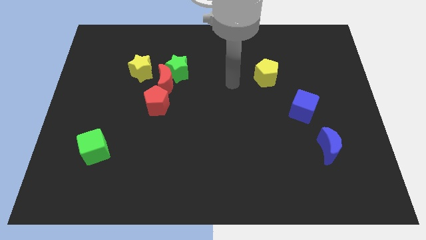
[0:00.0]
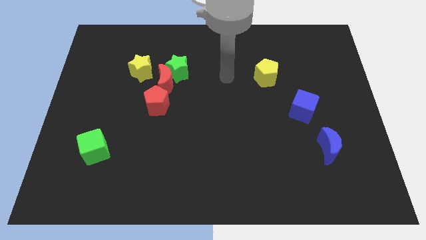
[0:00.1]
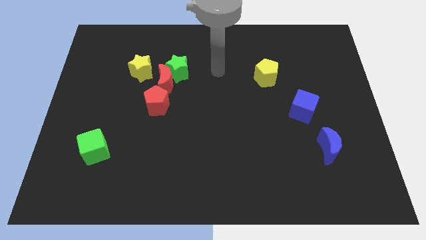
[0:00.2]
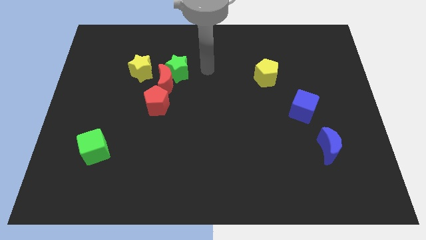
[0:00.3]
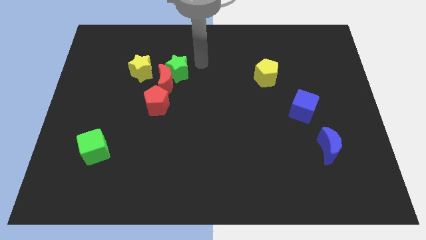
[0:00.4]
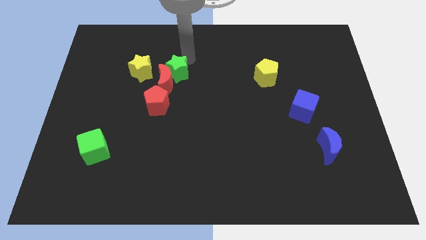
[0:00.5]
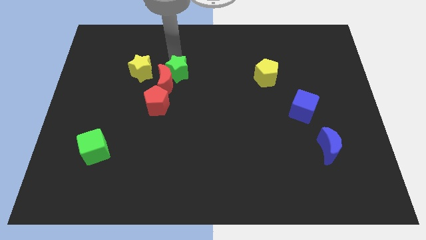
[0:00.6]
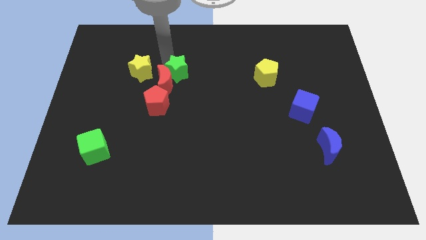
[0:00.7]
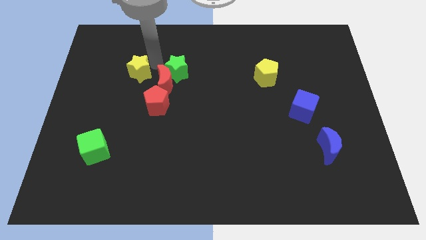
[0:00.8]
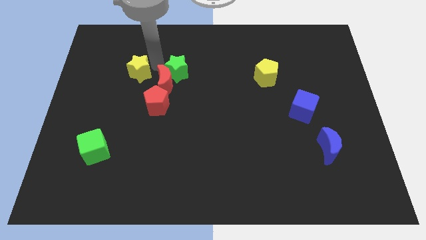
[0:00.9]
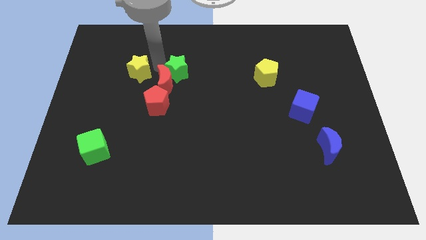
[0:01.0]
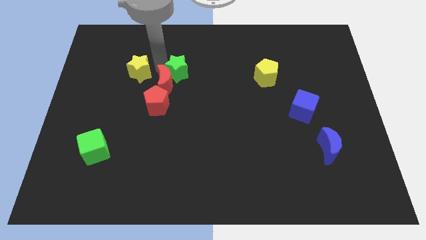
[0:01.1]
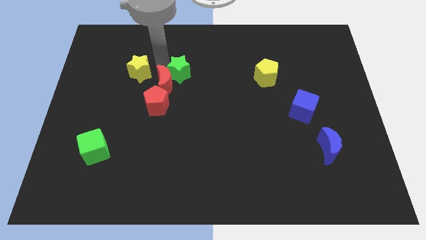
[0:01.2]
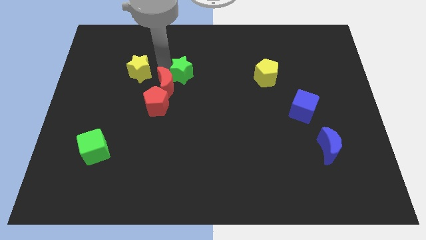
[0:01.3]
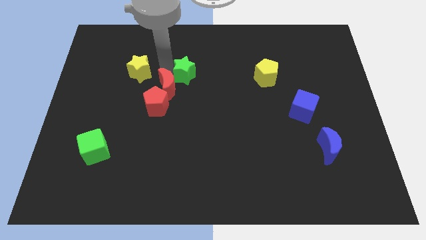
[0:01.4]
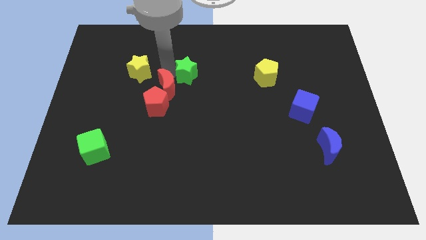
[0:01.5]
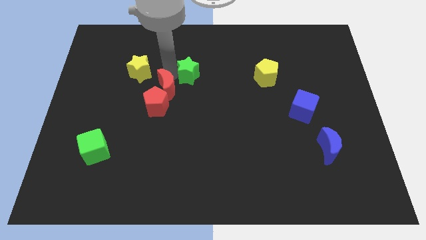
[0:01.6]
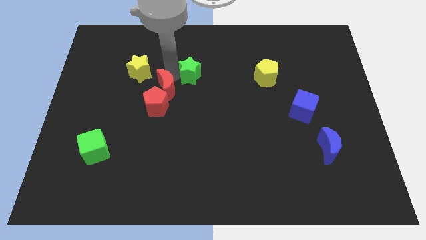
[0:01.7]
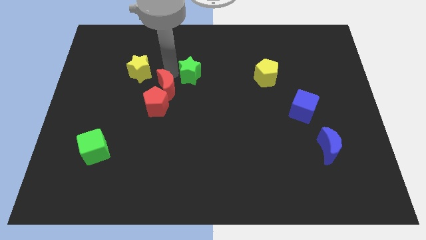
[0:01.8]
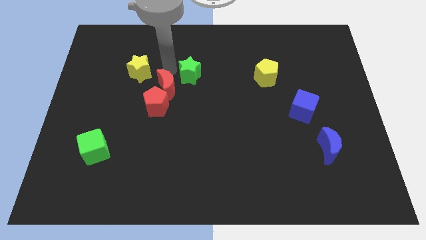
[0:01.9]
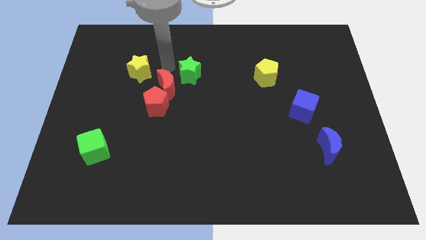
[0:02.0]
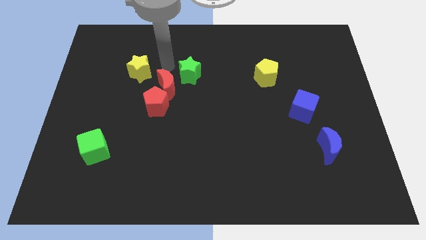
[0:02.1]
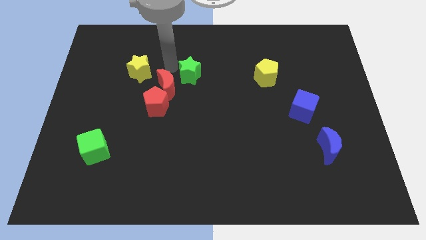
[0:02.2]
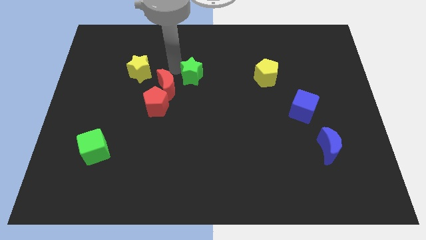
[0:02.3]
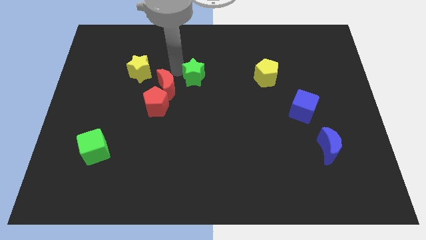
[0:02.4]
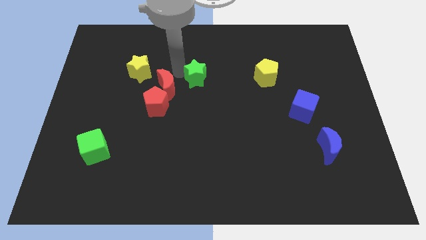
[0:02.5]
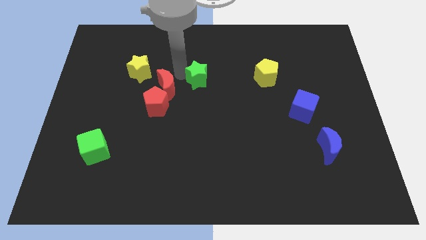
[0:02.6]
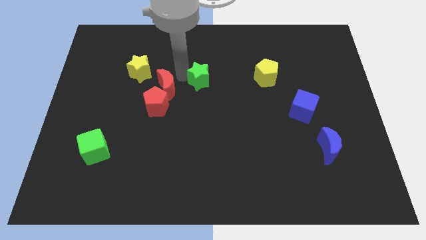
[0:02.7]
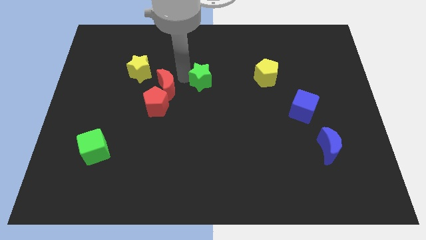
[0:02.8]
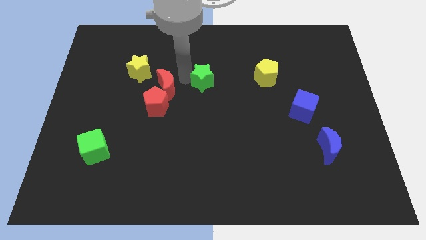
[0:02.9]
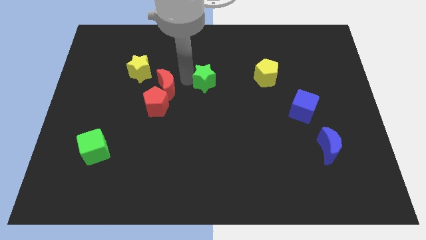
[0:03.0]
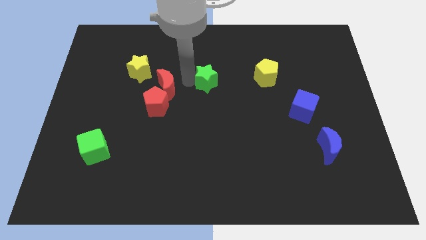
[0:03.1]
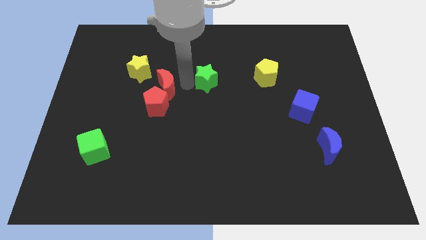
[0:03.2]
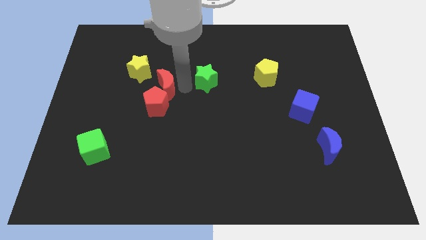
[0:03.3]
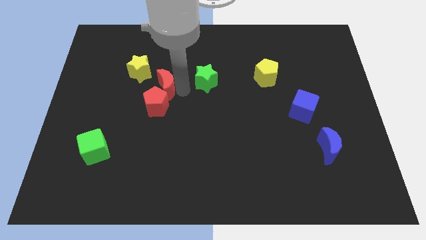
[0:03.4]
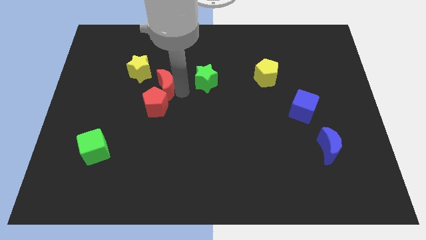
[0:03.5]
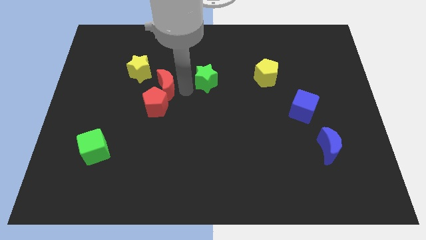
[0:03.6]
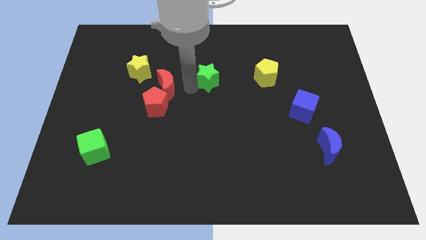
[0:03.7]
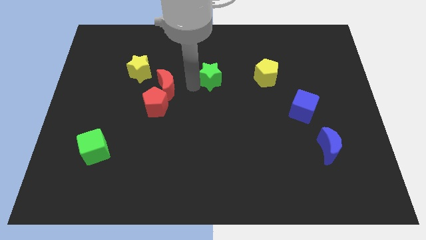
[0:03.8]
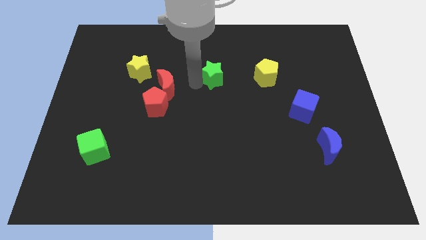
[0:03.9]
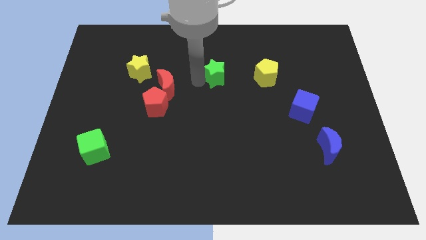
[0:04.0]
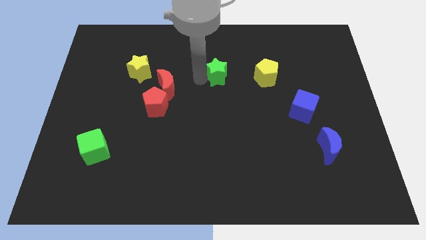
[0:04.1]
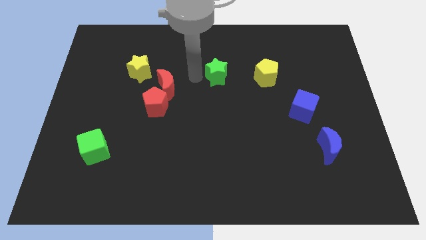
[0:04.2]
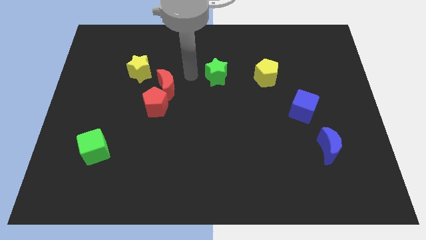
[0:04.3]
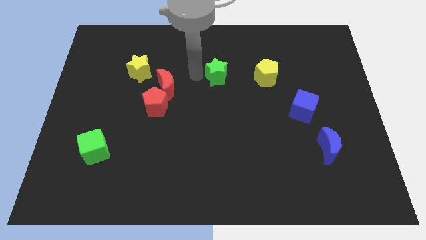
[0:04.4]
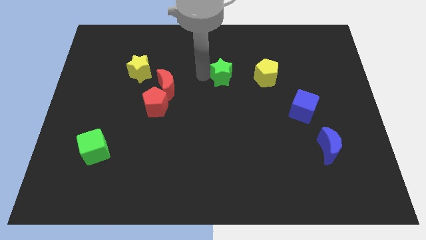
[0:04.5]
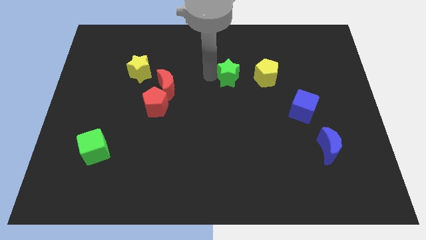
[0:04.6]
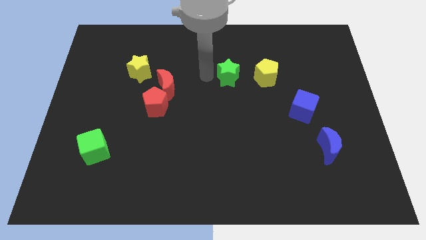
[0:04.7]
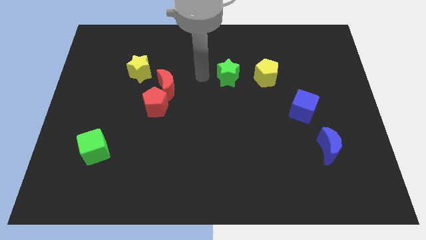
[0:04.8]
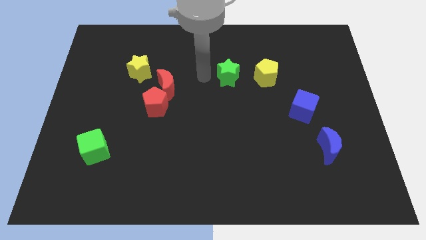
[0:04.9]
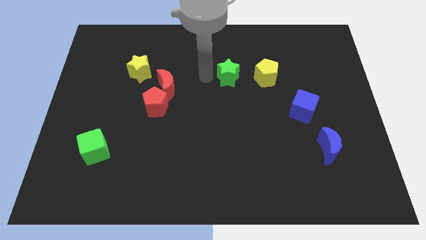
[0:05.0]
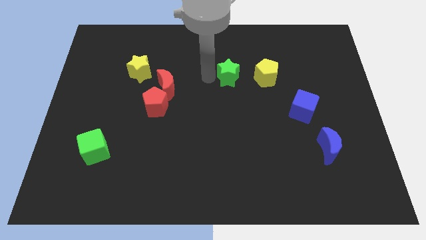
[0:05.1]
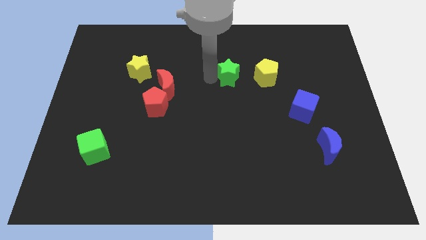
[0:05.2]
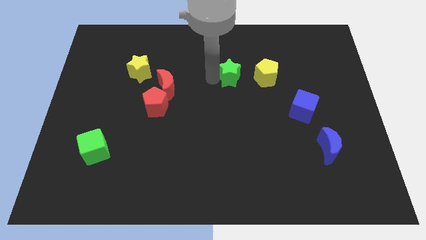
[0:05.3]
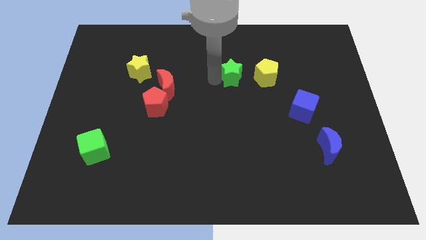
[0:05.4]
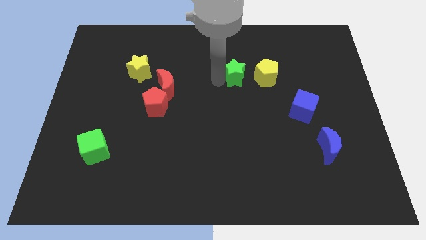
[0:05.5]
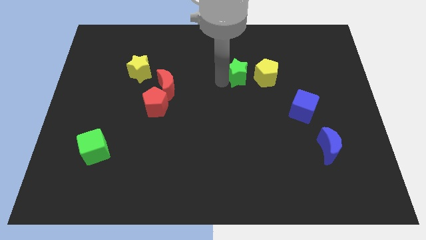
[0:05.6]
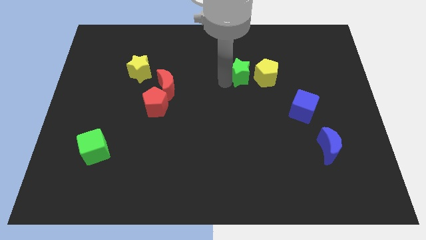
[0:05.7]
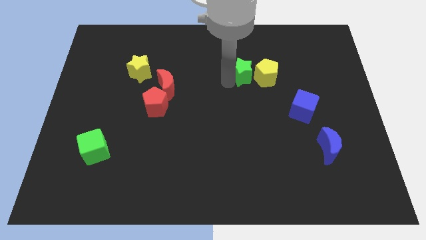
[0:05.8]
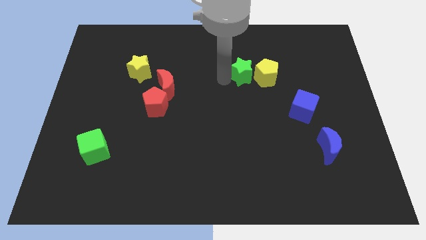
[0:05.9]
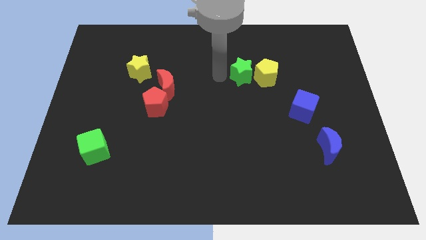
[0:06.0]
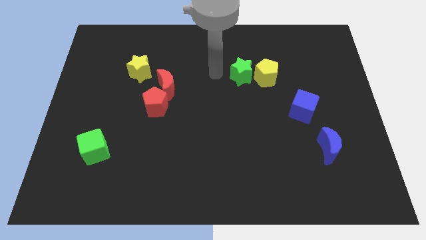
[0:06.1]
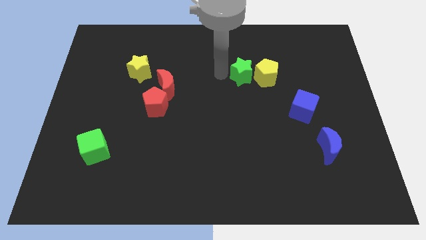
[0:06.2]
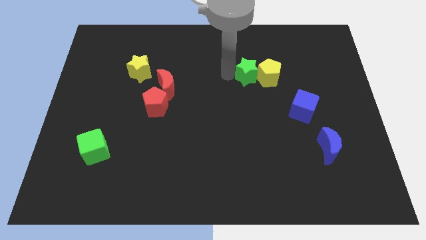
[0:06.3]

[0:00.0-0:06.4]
push the green star next to the yellow pentagon

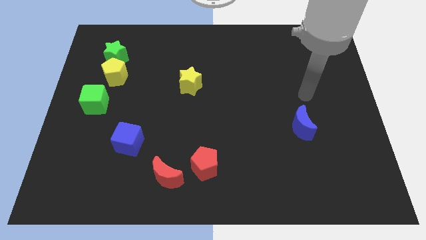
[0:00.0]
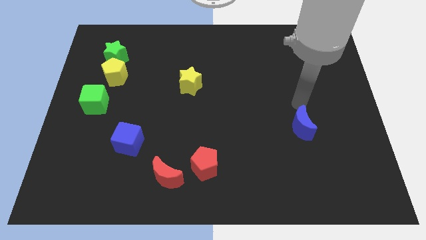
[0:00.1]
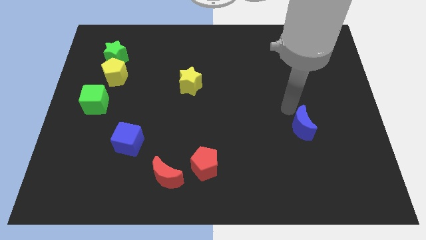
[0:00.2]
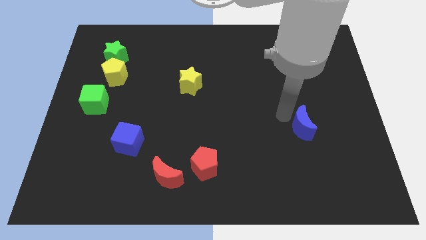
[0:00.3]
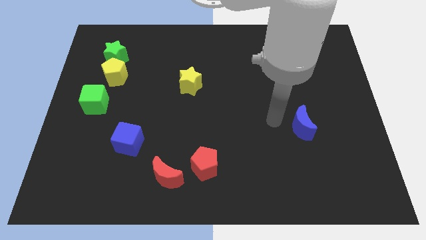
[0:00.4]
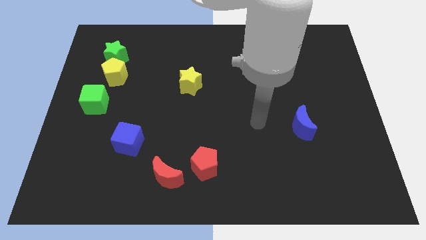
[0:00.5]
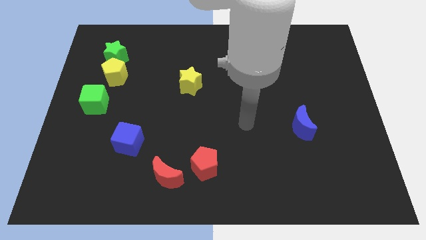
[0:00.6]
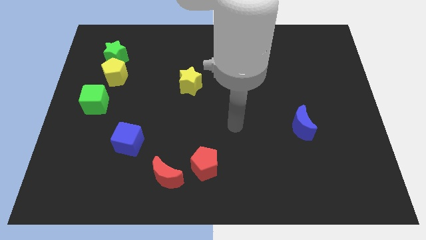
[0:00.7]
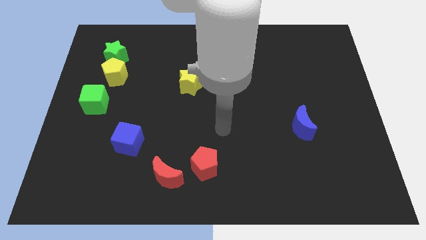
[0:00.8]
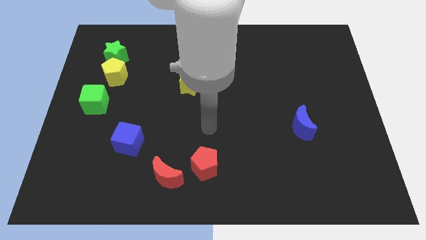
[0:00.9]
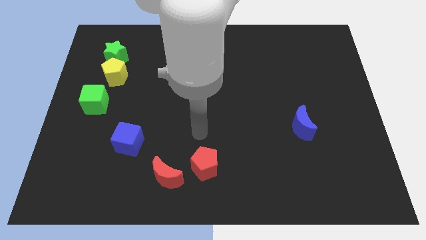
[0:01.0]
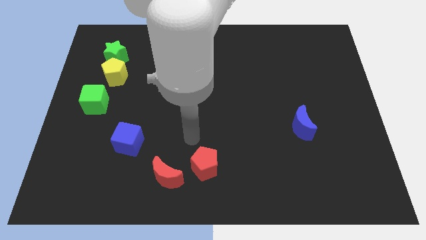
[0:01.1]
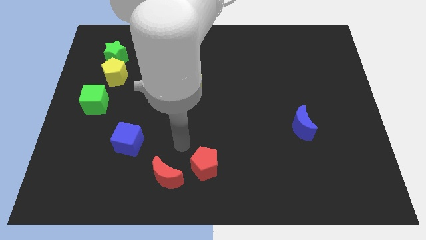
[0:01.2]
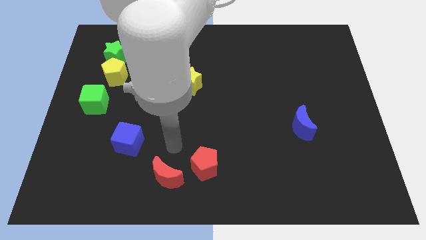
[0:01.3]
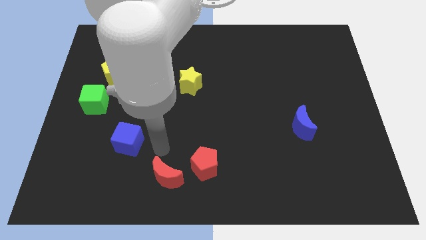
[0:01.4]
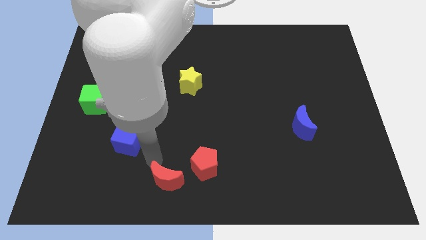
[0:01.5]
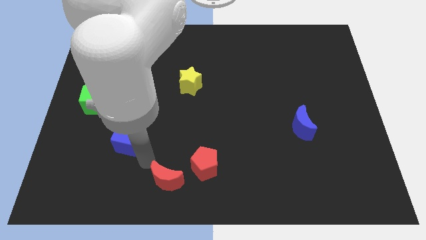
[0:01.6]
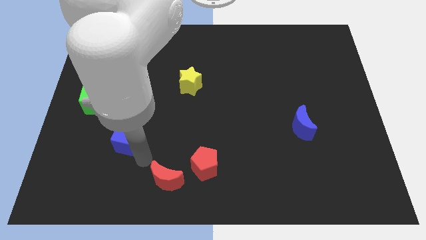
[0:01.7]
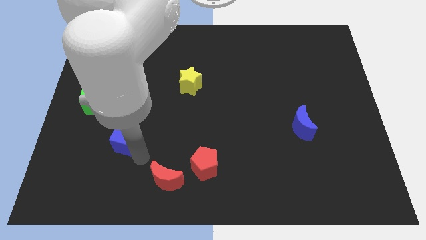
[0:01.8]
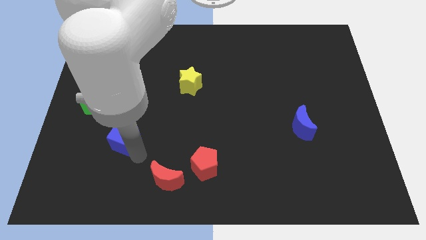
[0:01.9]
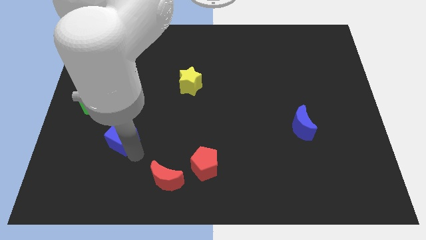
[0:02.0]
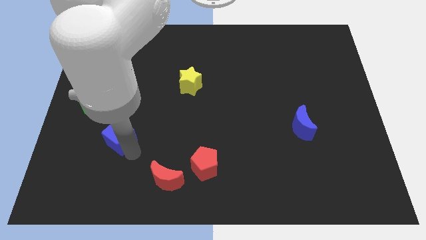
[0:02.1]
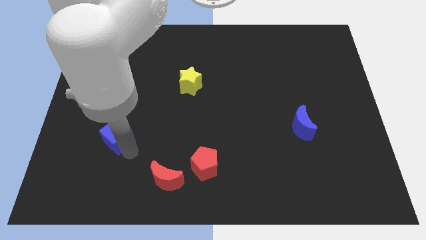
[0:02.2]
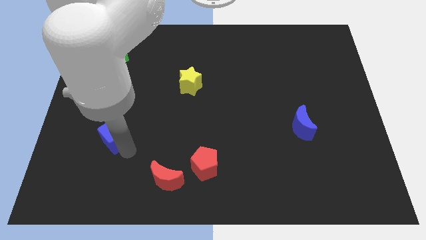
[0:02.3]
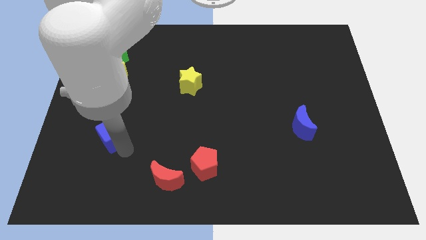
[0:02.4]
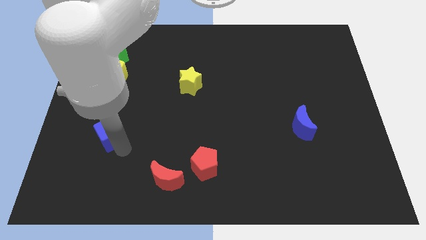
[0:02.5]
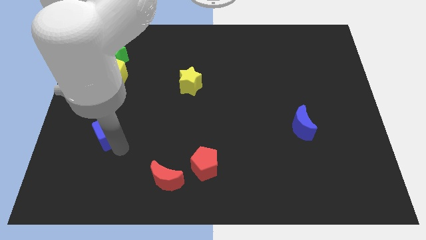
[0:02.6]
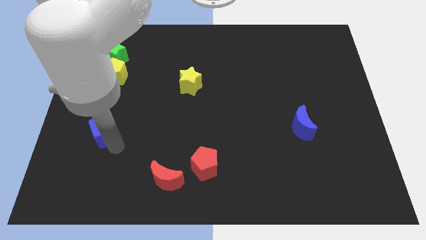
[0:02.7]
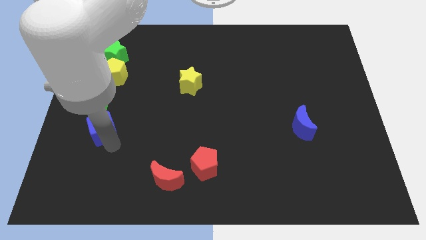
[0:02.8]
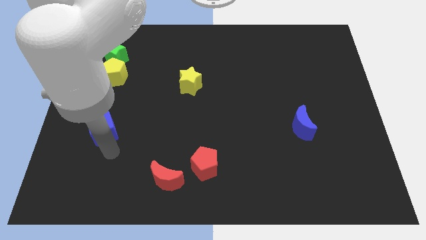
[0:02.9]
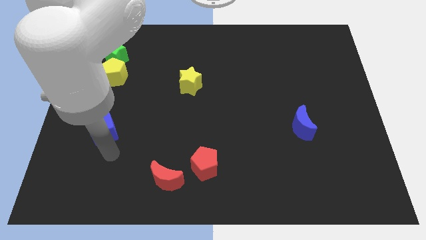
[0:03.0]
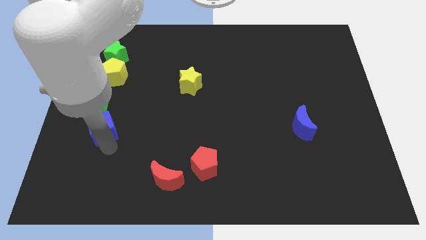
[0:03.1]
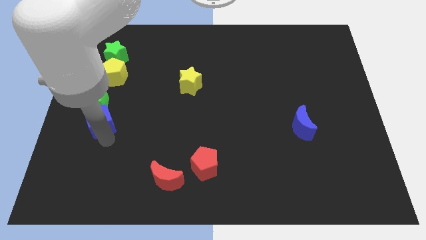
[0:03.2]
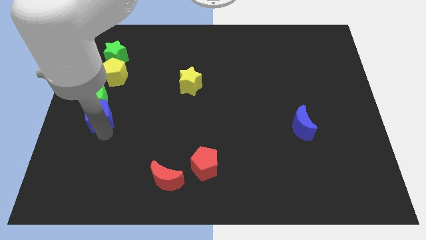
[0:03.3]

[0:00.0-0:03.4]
put the blue cube to the green cube
